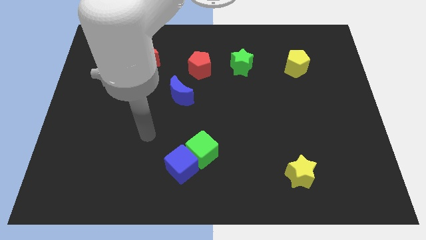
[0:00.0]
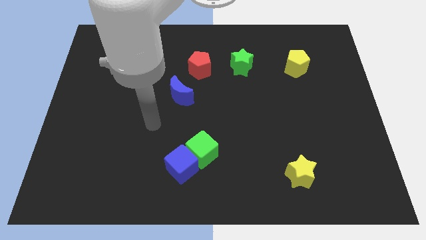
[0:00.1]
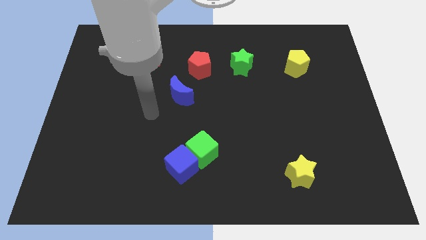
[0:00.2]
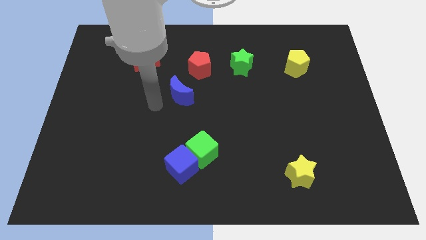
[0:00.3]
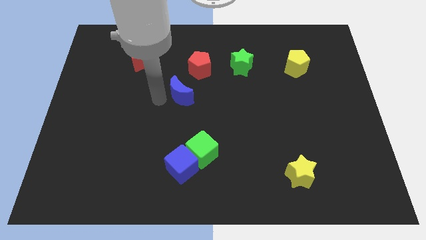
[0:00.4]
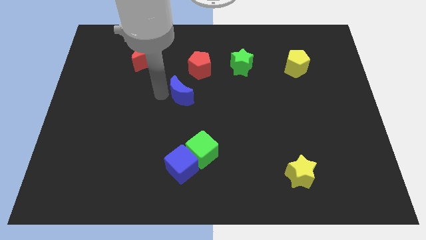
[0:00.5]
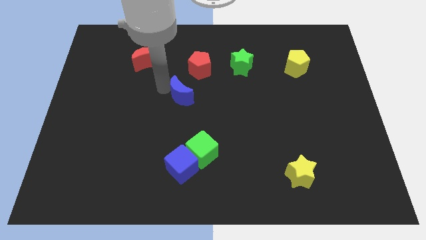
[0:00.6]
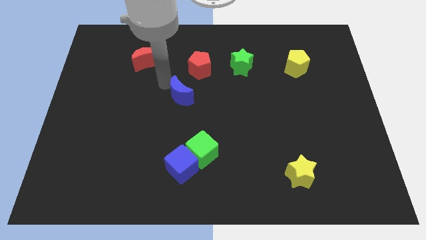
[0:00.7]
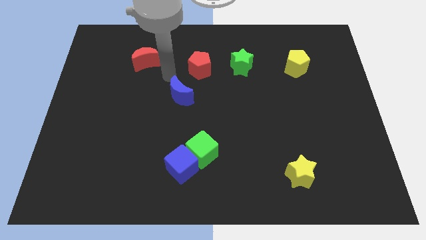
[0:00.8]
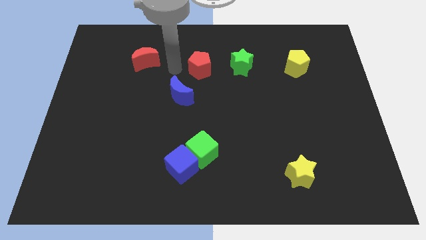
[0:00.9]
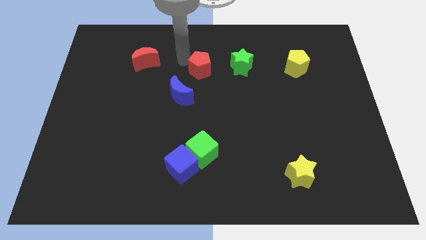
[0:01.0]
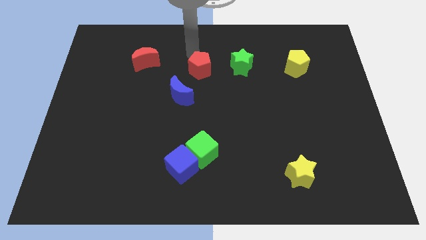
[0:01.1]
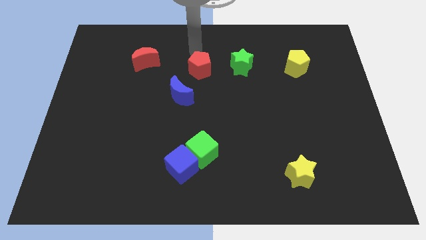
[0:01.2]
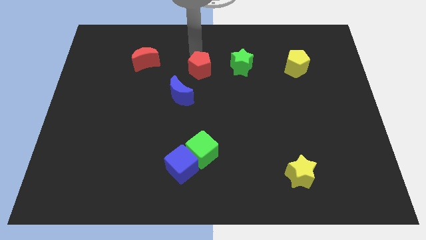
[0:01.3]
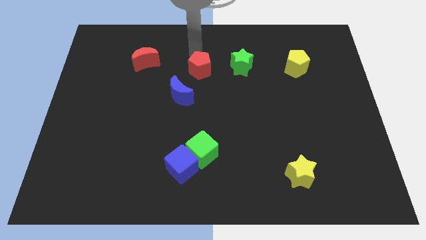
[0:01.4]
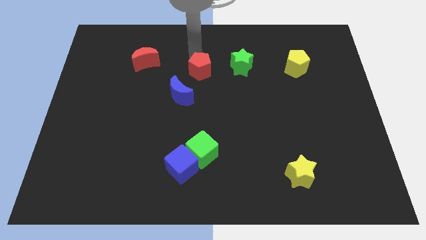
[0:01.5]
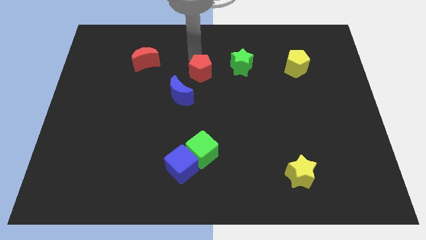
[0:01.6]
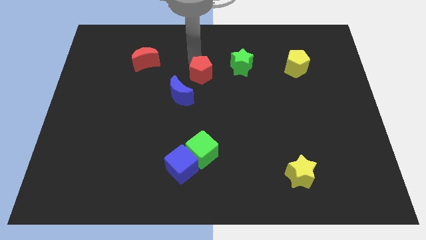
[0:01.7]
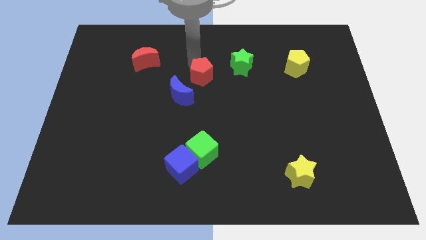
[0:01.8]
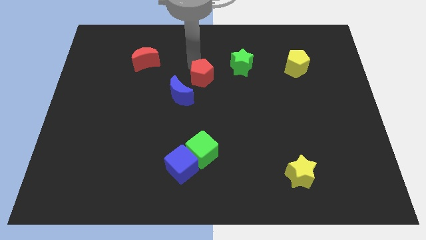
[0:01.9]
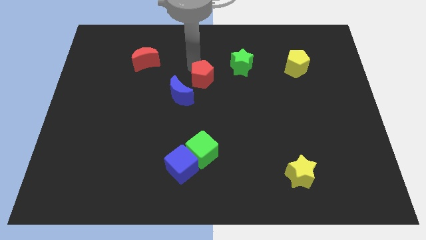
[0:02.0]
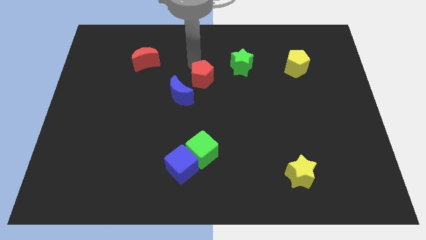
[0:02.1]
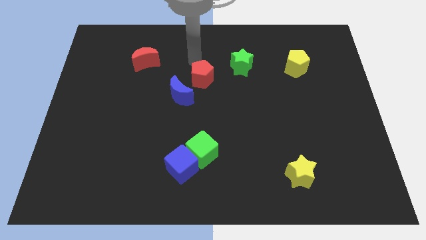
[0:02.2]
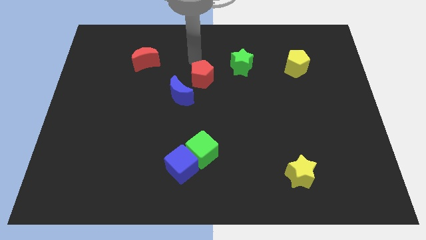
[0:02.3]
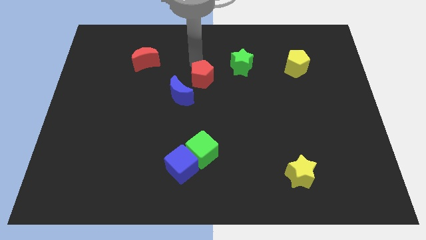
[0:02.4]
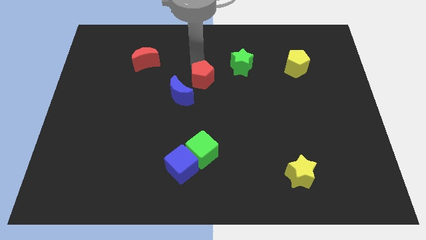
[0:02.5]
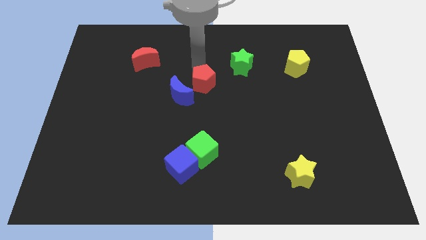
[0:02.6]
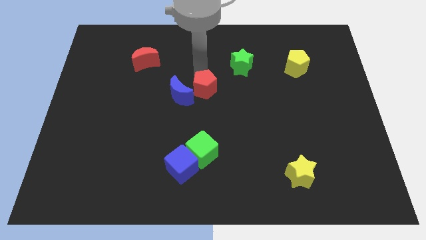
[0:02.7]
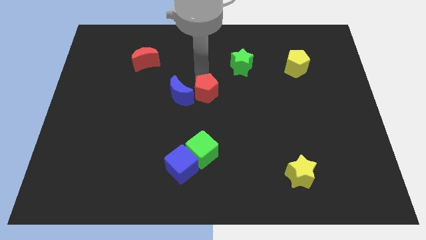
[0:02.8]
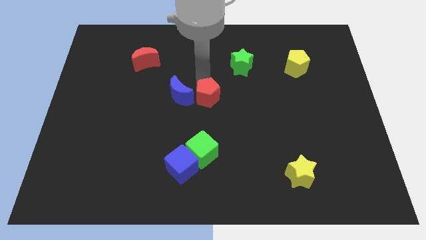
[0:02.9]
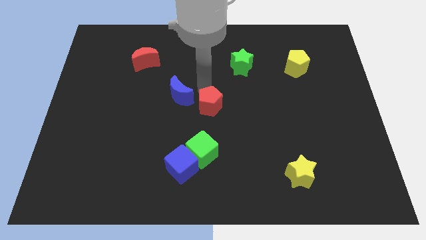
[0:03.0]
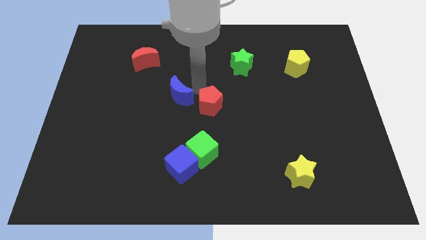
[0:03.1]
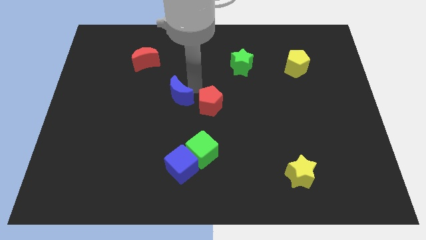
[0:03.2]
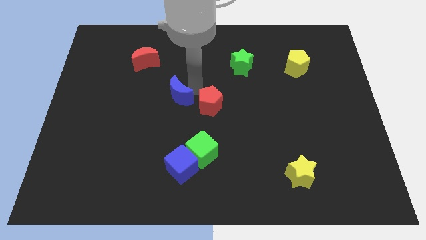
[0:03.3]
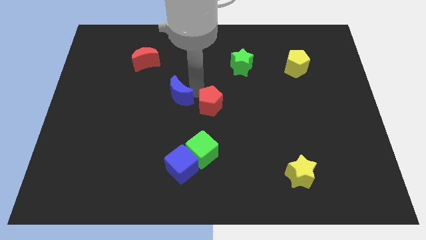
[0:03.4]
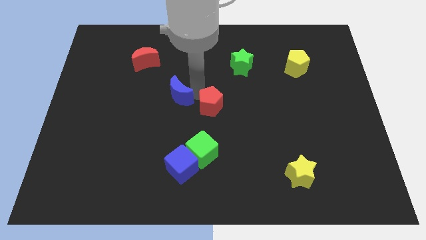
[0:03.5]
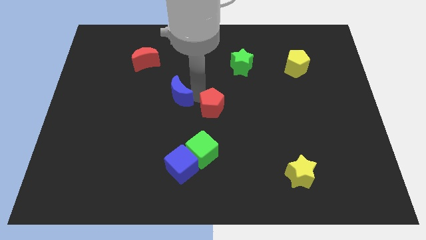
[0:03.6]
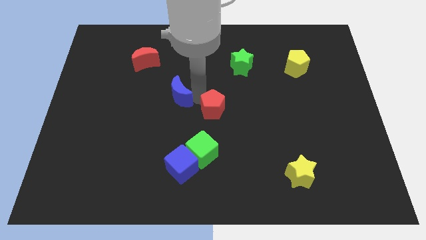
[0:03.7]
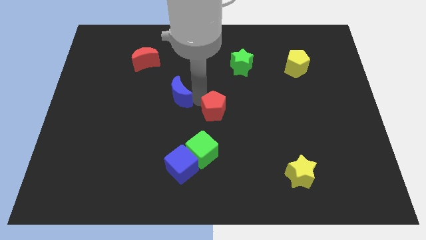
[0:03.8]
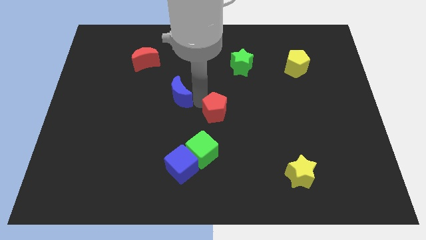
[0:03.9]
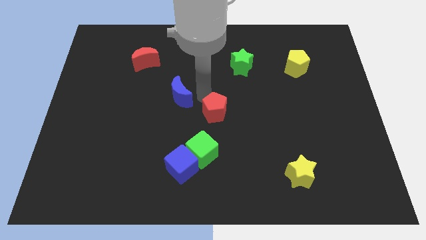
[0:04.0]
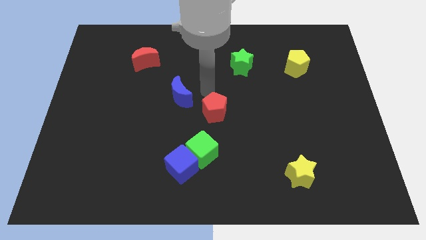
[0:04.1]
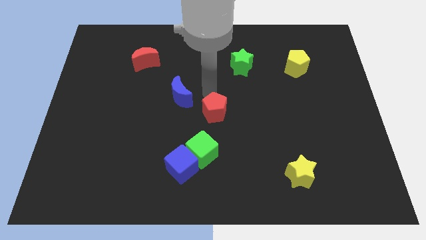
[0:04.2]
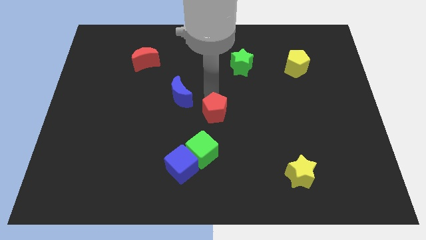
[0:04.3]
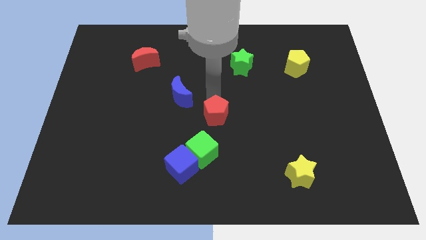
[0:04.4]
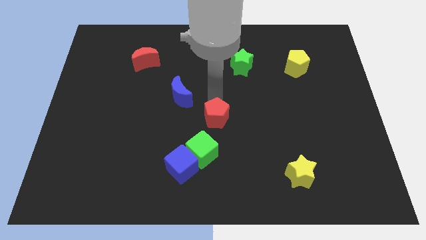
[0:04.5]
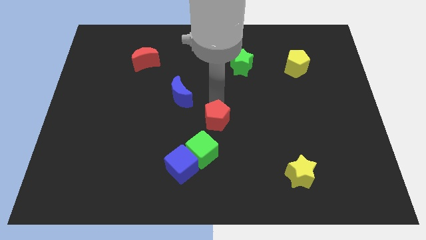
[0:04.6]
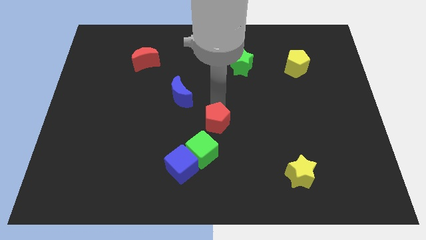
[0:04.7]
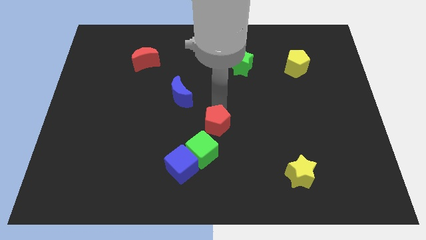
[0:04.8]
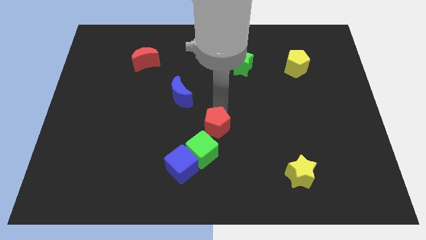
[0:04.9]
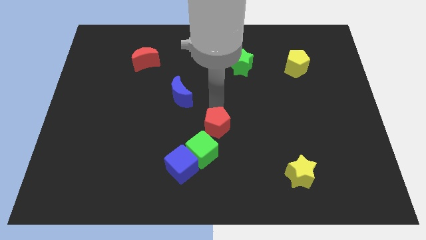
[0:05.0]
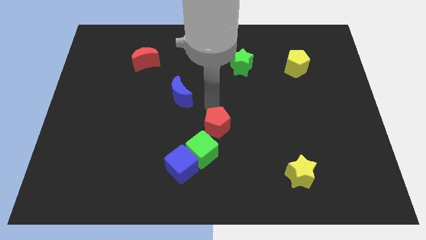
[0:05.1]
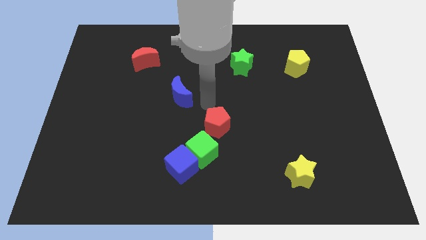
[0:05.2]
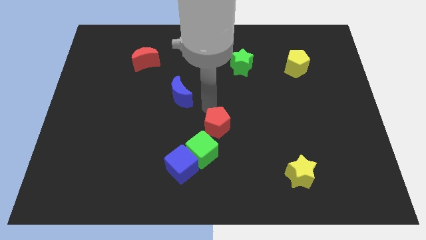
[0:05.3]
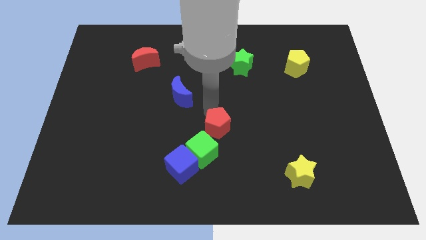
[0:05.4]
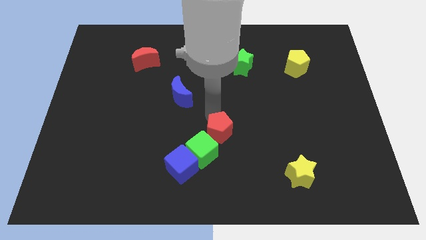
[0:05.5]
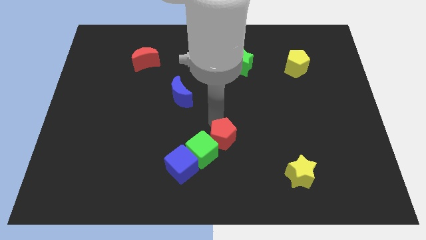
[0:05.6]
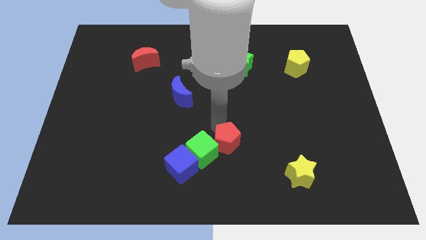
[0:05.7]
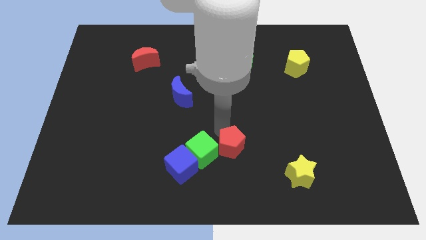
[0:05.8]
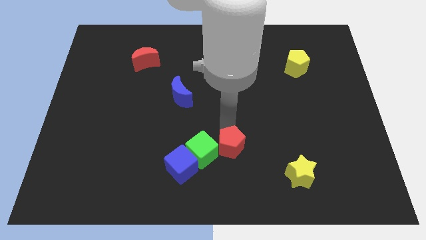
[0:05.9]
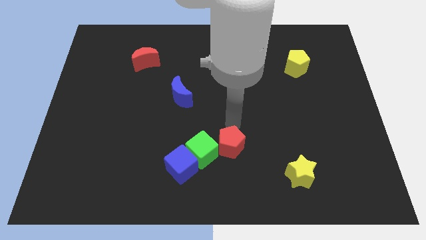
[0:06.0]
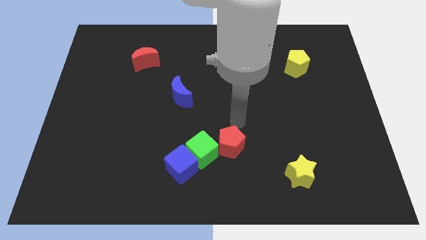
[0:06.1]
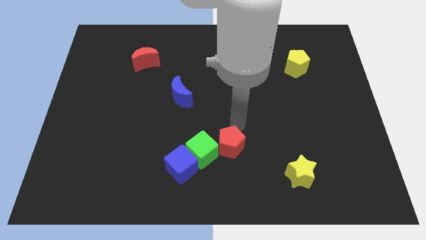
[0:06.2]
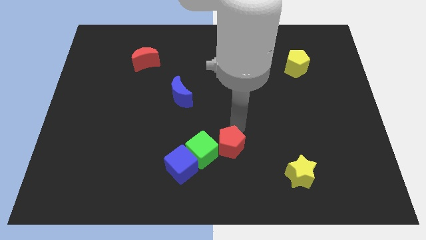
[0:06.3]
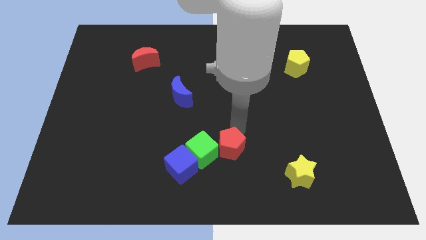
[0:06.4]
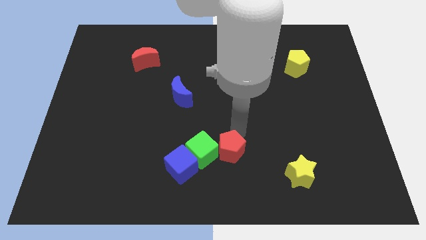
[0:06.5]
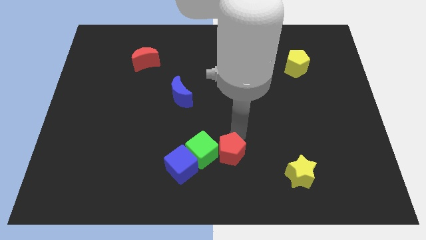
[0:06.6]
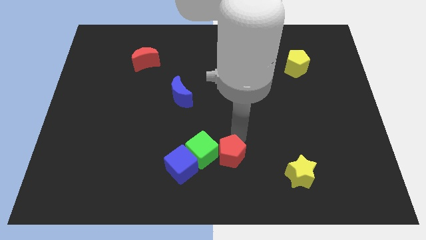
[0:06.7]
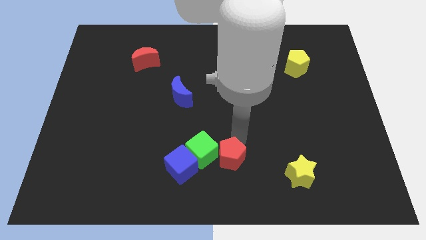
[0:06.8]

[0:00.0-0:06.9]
slide the red pentagon to the bottom side
